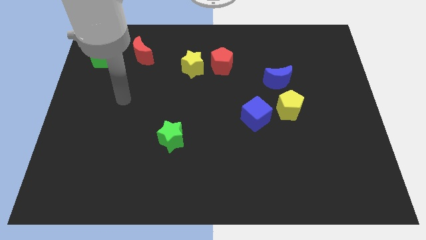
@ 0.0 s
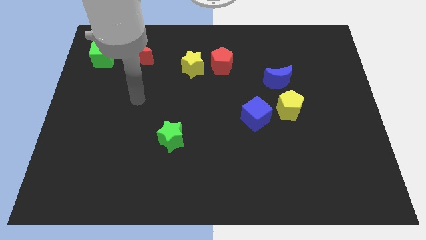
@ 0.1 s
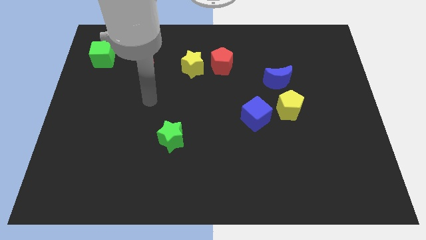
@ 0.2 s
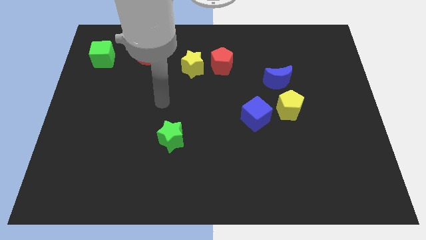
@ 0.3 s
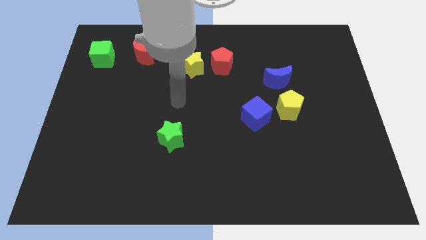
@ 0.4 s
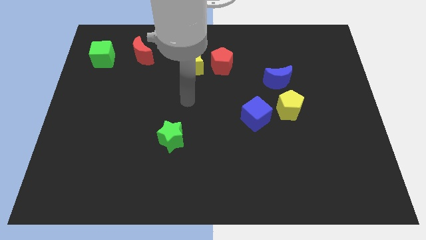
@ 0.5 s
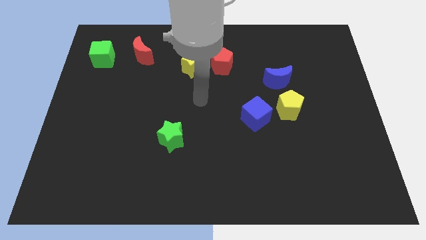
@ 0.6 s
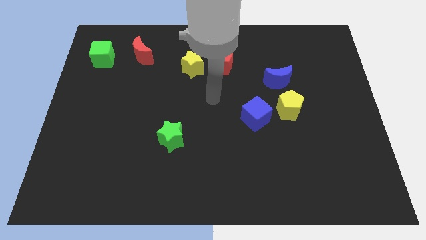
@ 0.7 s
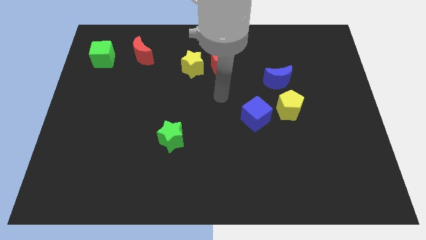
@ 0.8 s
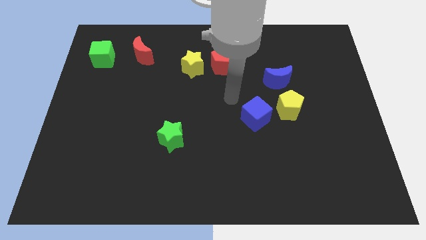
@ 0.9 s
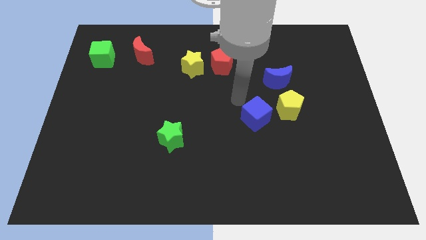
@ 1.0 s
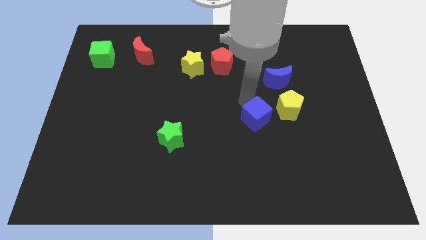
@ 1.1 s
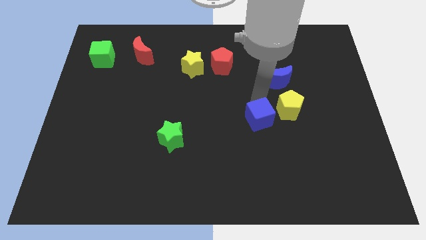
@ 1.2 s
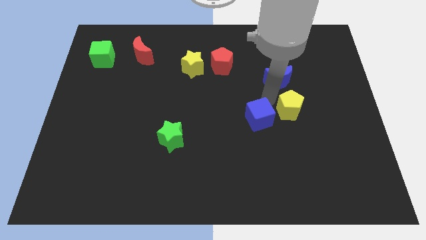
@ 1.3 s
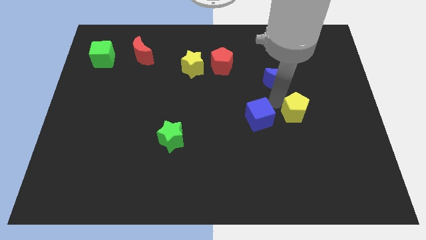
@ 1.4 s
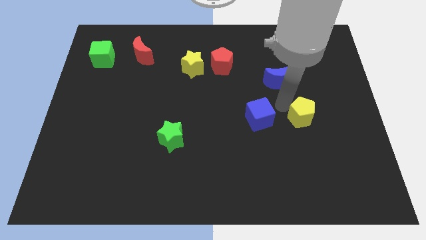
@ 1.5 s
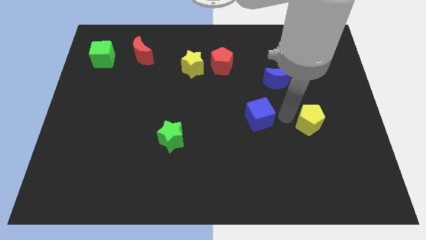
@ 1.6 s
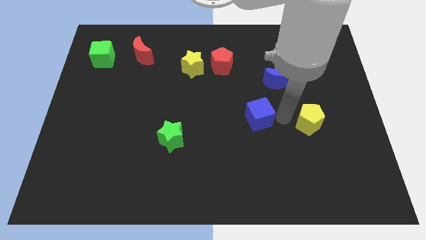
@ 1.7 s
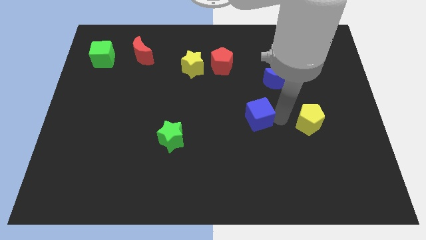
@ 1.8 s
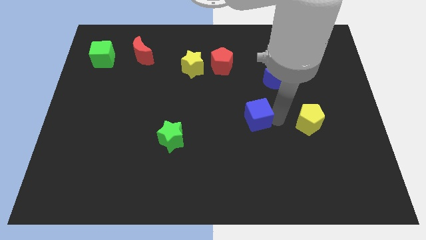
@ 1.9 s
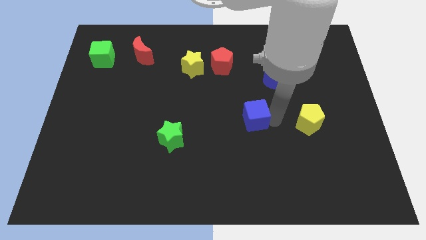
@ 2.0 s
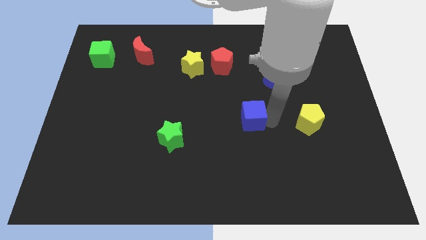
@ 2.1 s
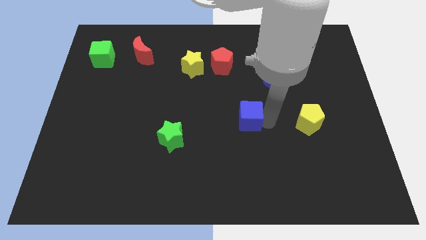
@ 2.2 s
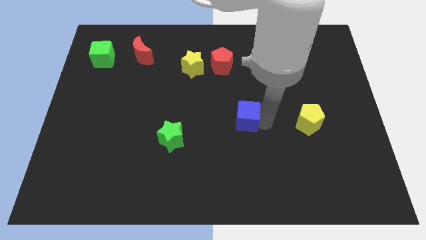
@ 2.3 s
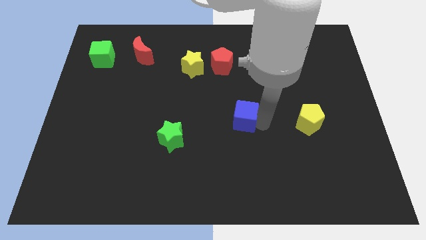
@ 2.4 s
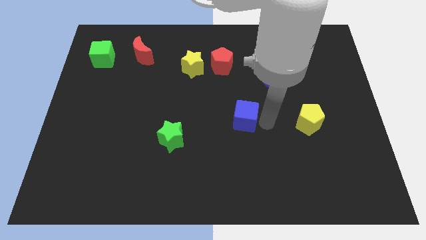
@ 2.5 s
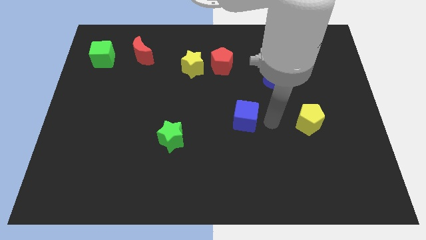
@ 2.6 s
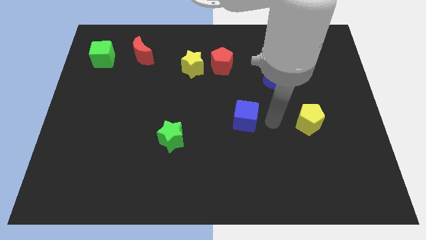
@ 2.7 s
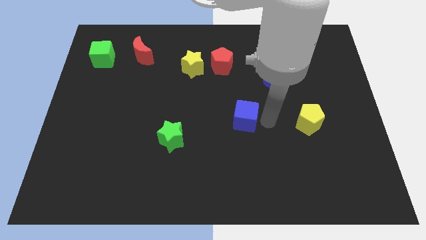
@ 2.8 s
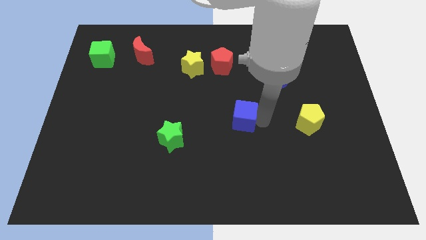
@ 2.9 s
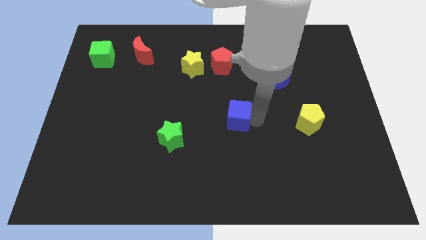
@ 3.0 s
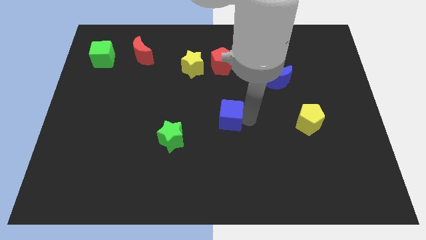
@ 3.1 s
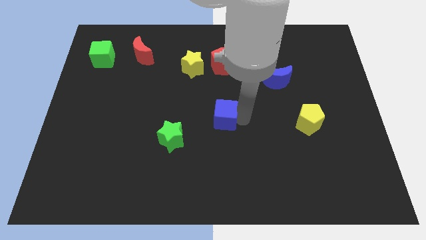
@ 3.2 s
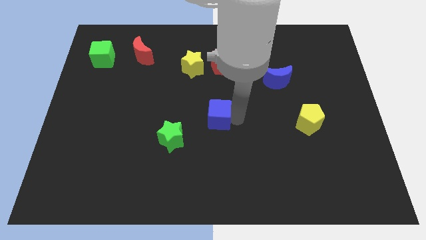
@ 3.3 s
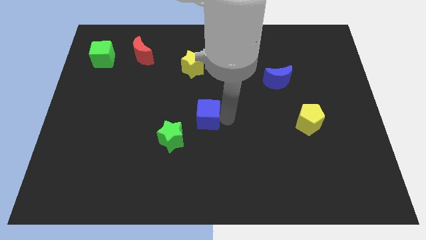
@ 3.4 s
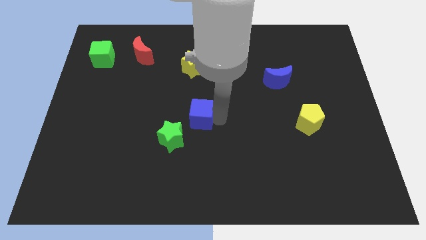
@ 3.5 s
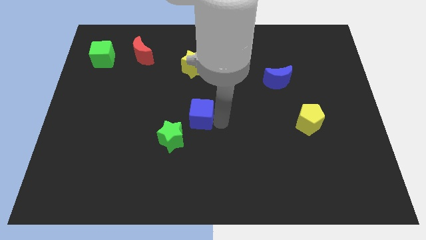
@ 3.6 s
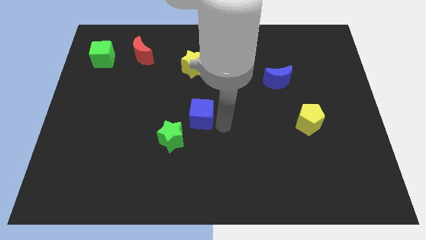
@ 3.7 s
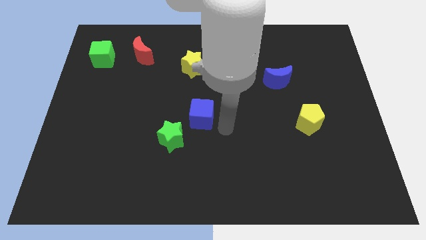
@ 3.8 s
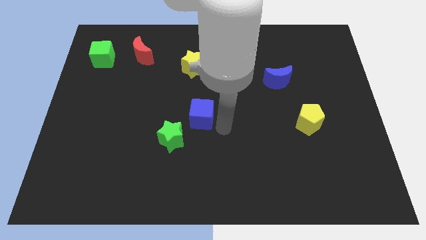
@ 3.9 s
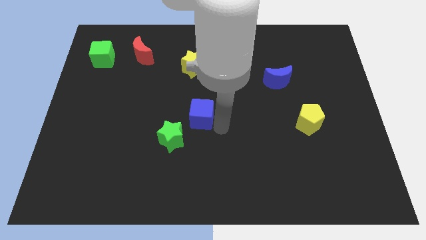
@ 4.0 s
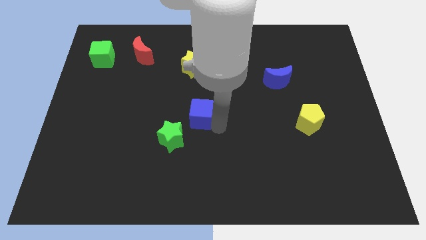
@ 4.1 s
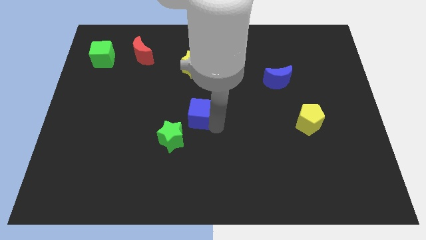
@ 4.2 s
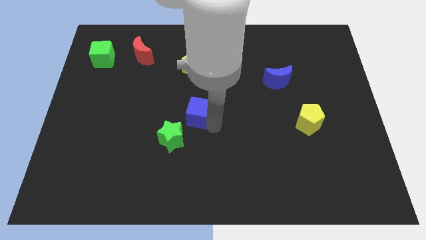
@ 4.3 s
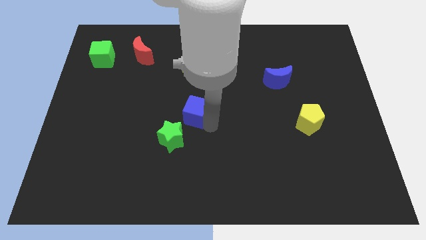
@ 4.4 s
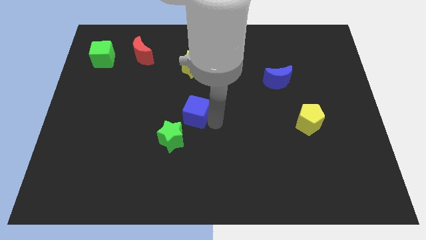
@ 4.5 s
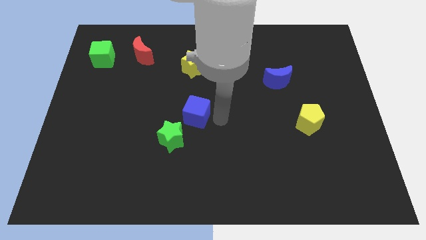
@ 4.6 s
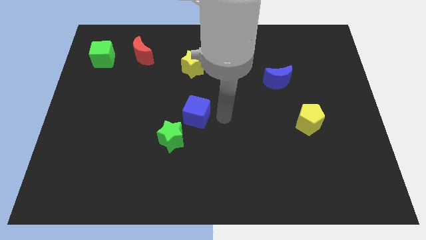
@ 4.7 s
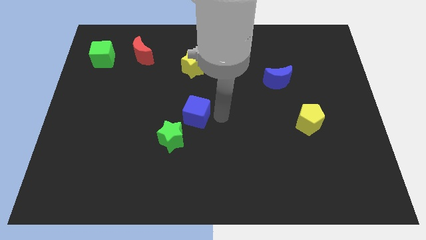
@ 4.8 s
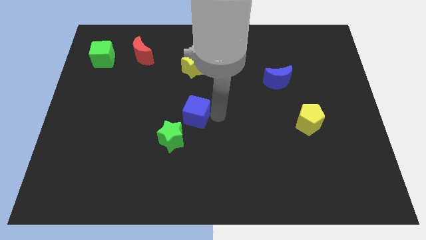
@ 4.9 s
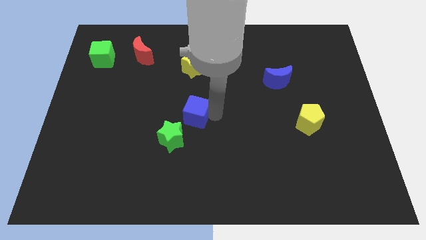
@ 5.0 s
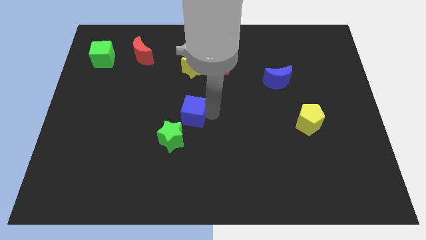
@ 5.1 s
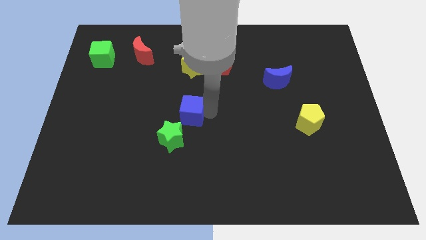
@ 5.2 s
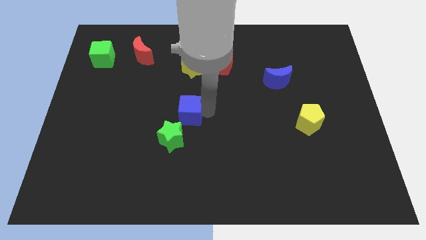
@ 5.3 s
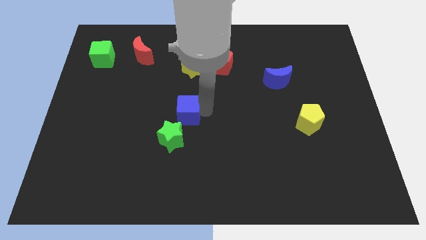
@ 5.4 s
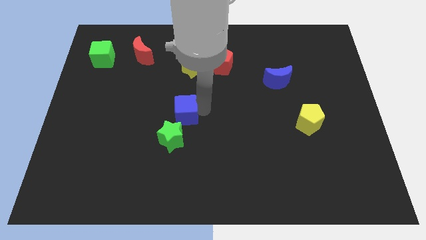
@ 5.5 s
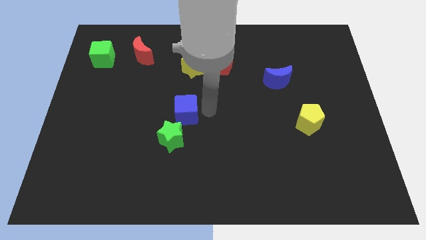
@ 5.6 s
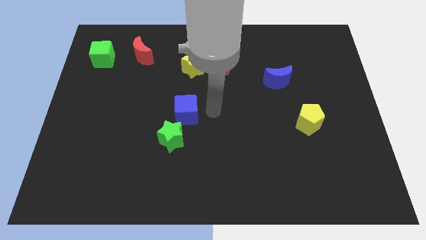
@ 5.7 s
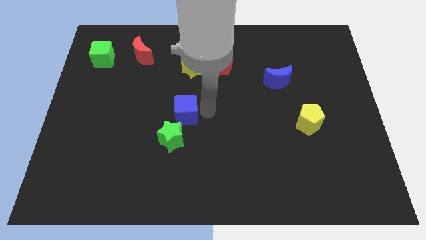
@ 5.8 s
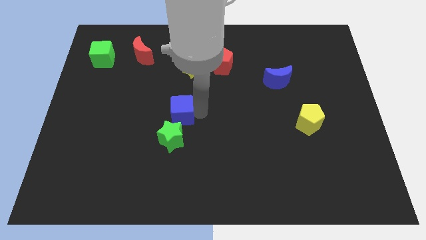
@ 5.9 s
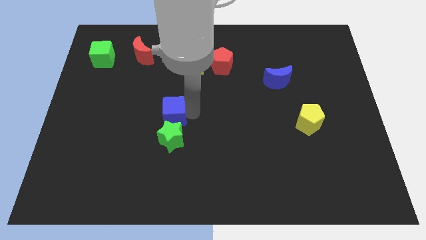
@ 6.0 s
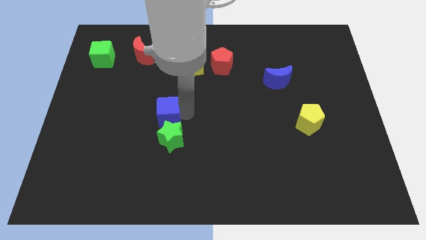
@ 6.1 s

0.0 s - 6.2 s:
slide the blue cube left

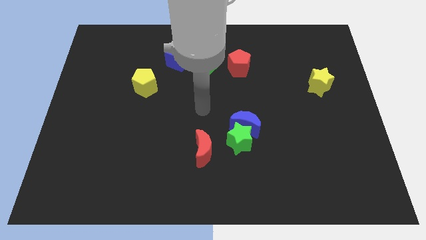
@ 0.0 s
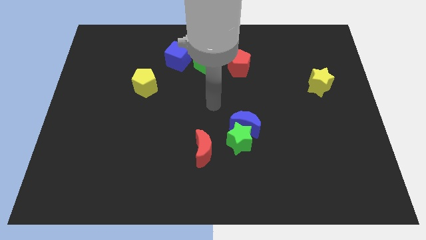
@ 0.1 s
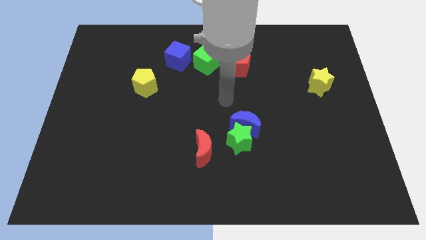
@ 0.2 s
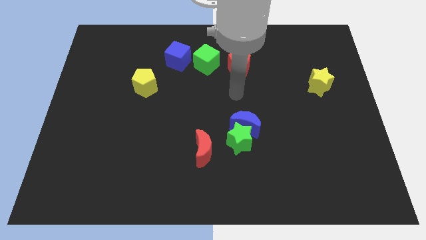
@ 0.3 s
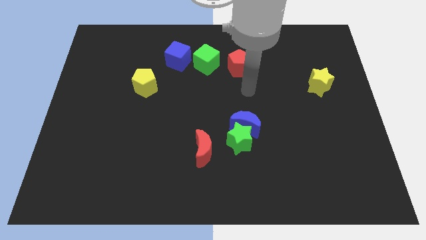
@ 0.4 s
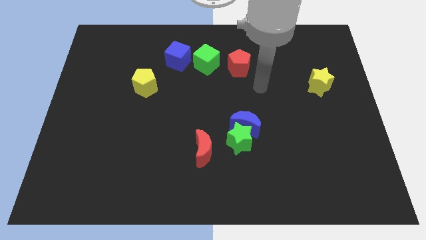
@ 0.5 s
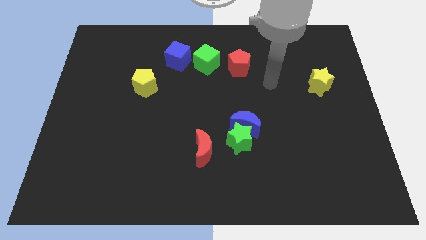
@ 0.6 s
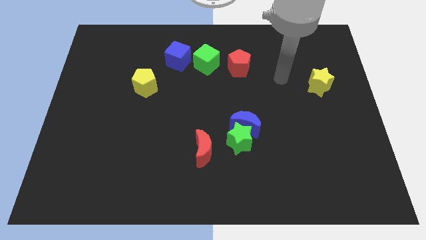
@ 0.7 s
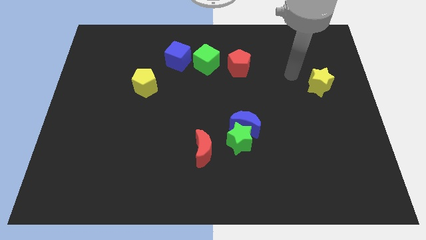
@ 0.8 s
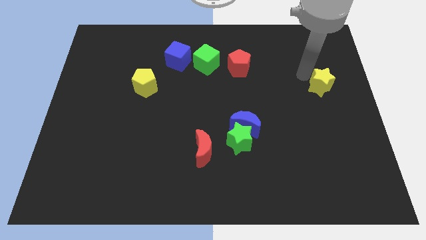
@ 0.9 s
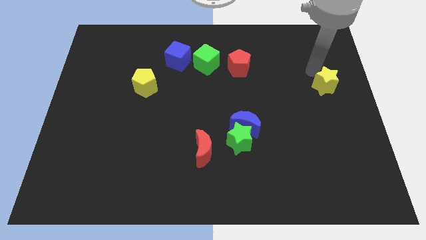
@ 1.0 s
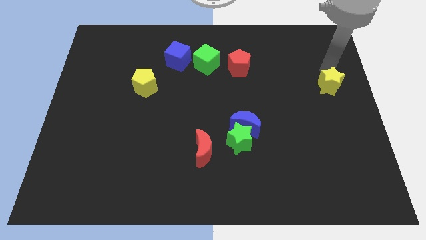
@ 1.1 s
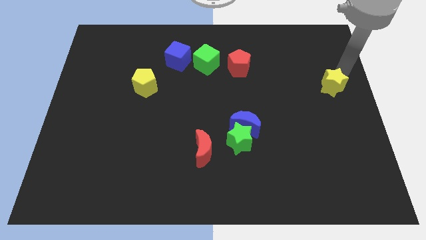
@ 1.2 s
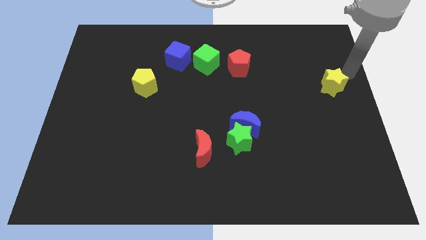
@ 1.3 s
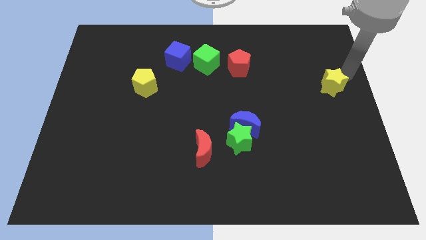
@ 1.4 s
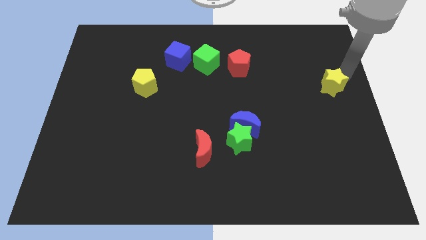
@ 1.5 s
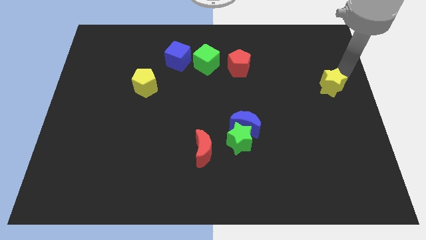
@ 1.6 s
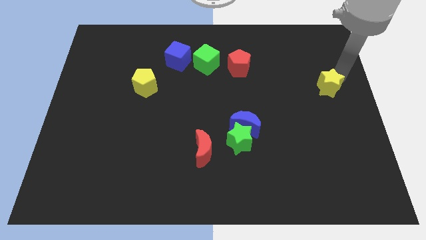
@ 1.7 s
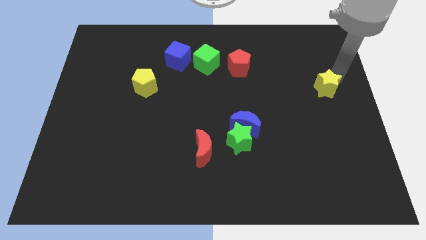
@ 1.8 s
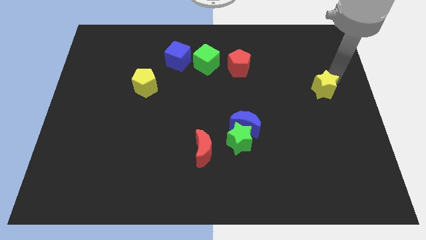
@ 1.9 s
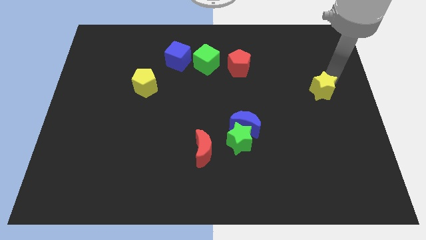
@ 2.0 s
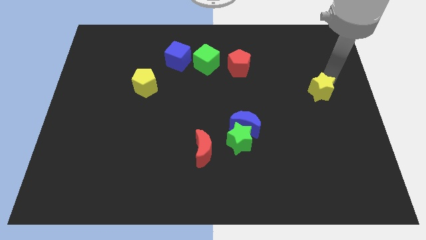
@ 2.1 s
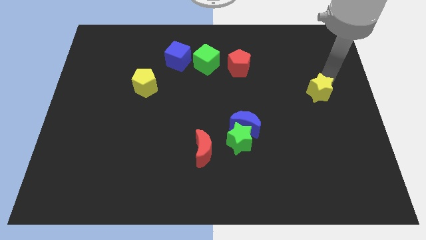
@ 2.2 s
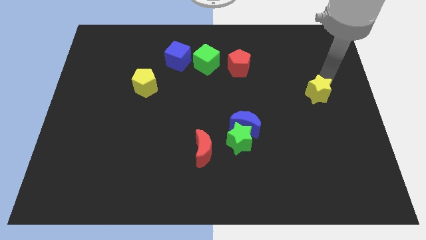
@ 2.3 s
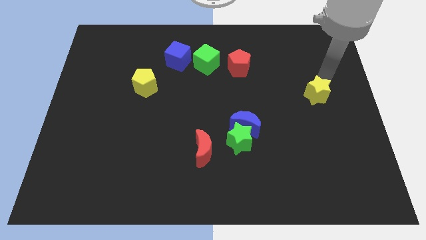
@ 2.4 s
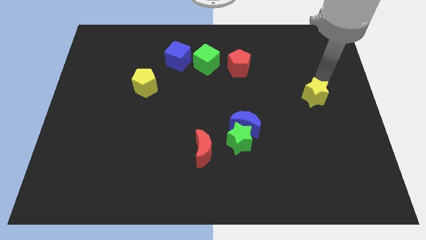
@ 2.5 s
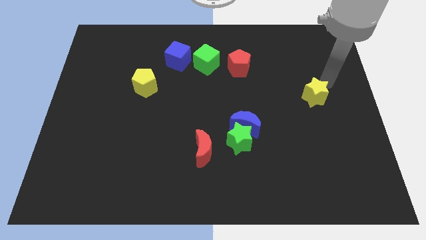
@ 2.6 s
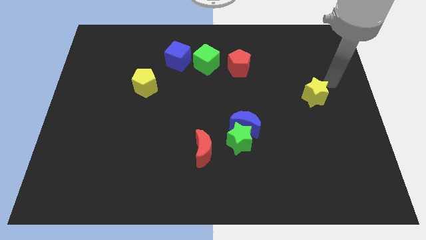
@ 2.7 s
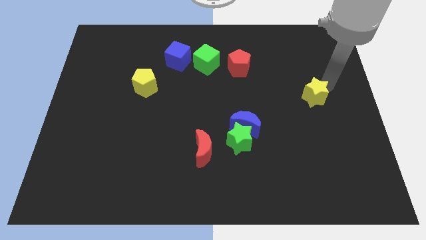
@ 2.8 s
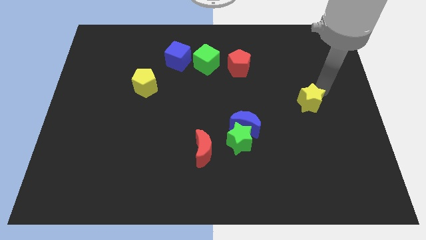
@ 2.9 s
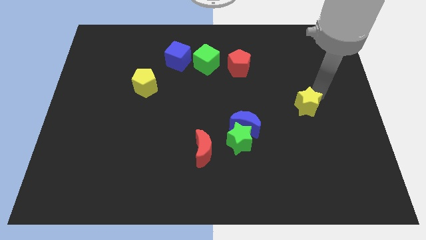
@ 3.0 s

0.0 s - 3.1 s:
slightly slide the yellow star down and to the left diagonally
